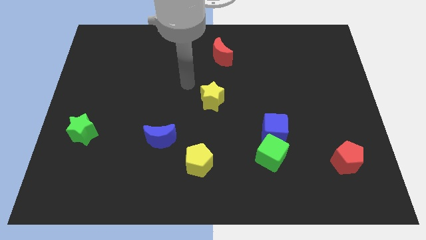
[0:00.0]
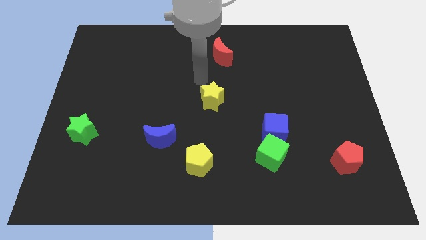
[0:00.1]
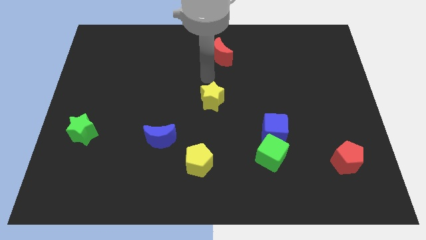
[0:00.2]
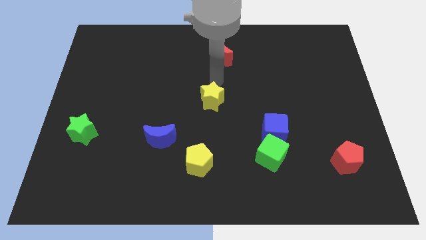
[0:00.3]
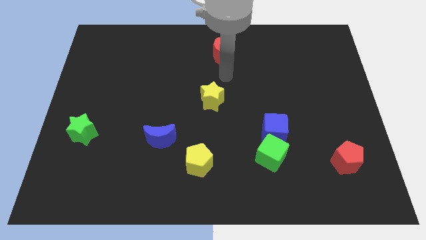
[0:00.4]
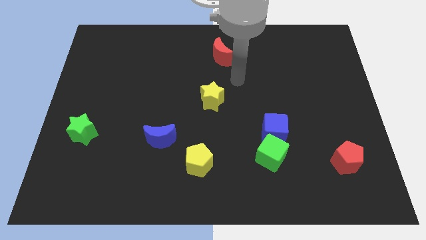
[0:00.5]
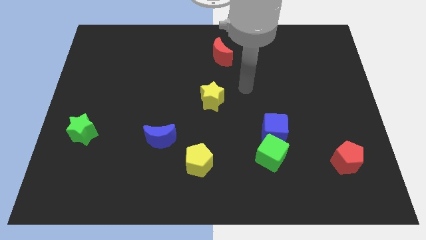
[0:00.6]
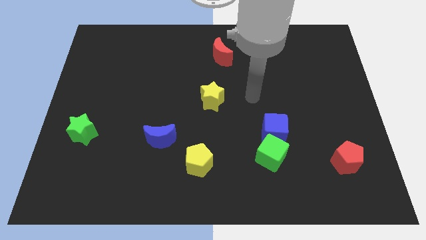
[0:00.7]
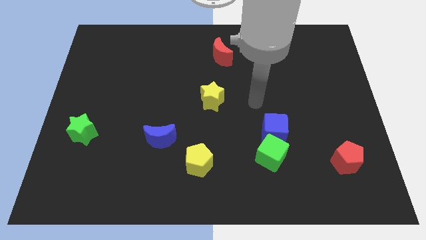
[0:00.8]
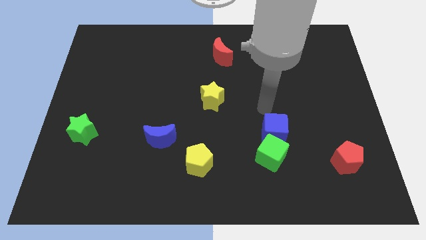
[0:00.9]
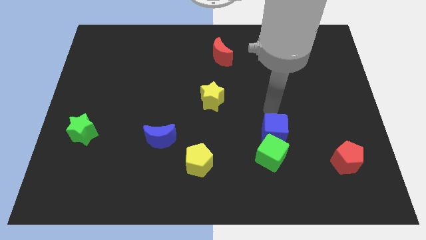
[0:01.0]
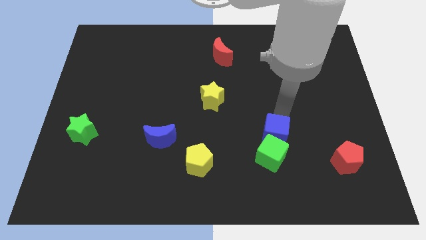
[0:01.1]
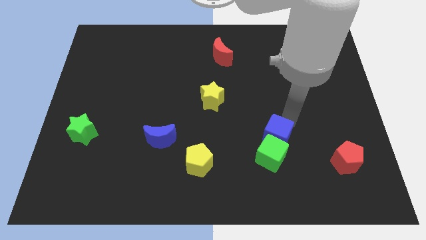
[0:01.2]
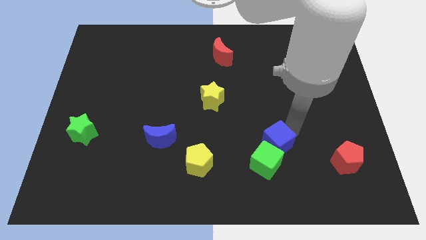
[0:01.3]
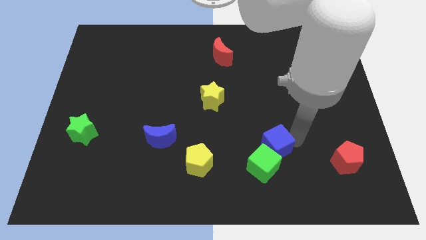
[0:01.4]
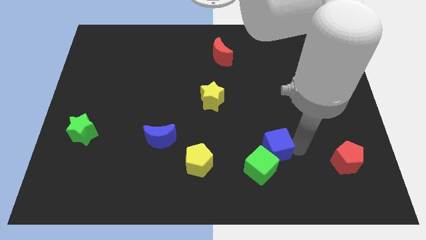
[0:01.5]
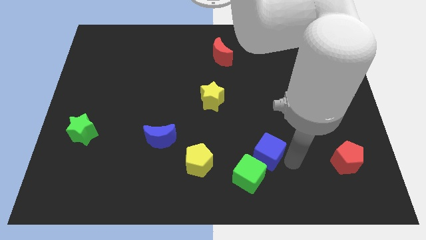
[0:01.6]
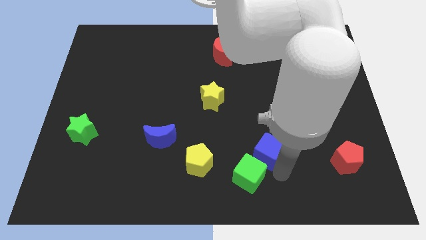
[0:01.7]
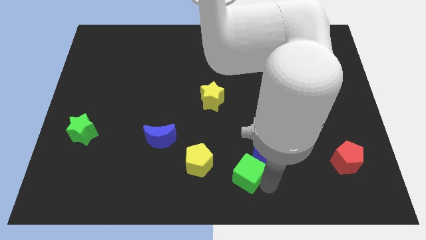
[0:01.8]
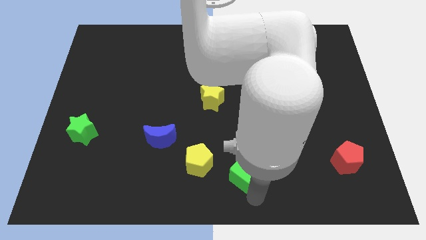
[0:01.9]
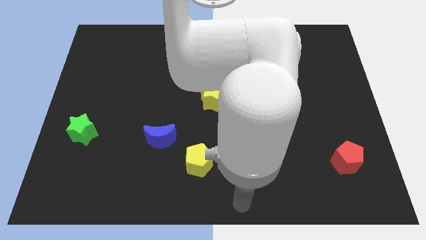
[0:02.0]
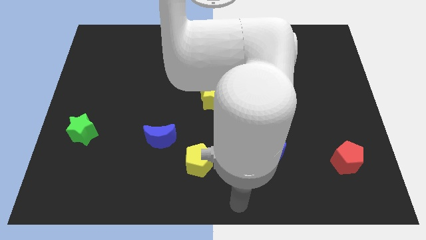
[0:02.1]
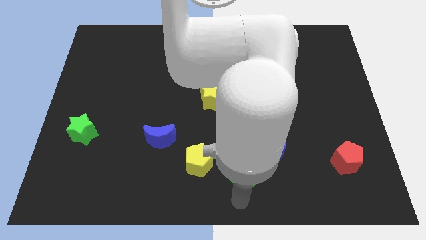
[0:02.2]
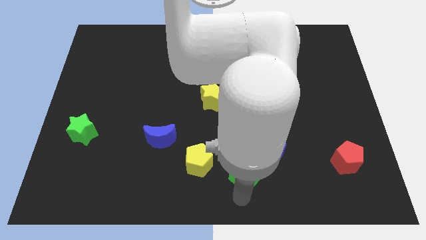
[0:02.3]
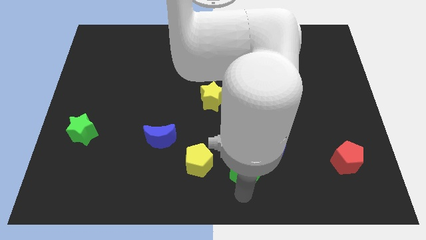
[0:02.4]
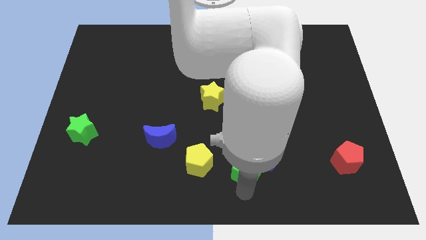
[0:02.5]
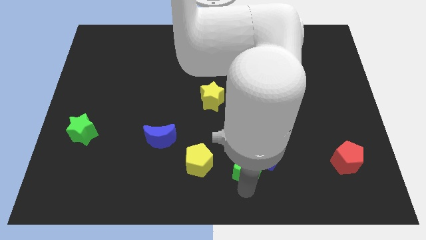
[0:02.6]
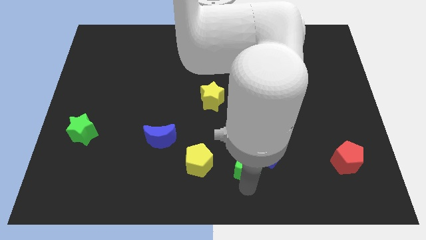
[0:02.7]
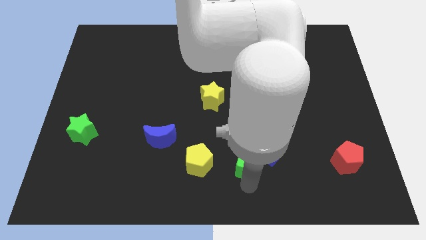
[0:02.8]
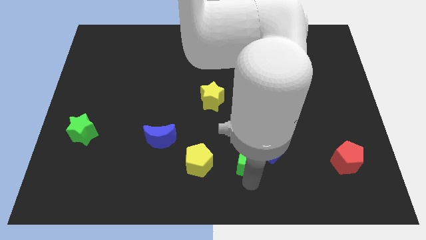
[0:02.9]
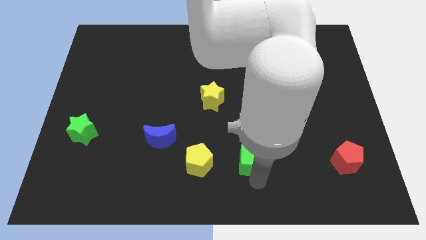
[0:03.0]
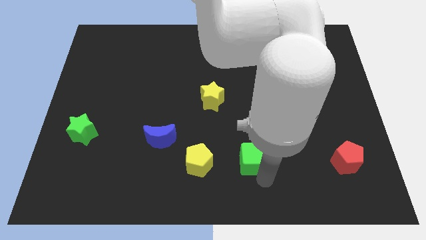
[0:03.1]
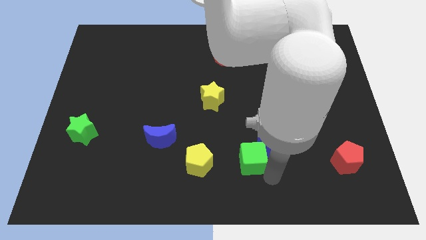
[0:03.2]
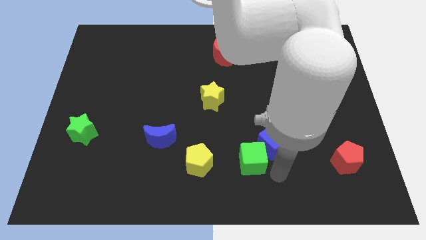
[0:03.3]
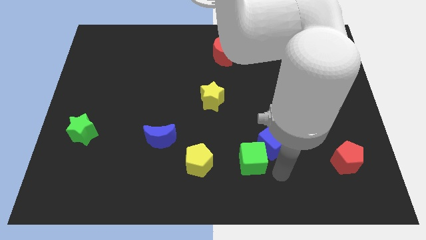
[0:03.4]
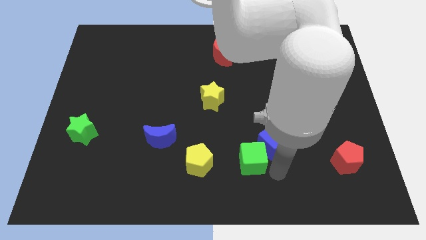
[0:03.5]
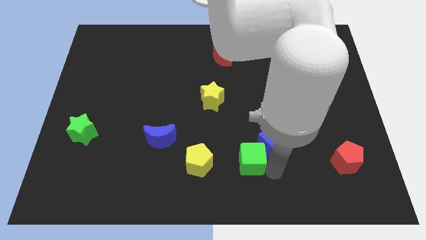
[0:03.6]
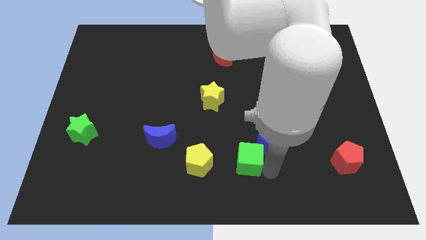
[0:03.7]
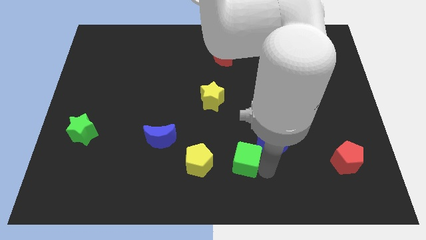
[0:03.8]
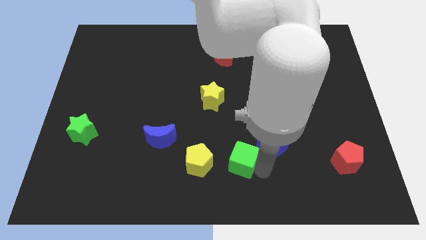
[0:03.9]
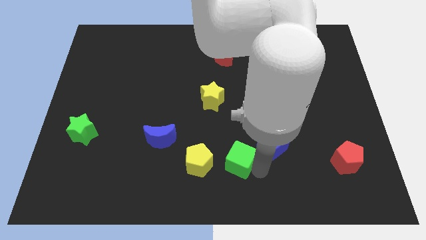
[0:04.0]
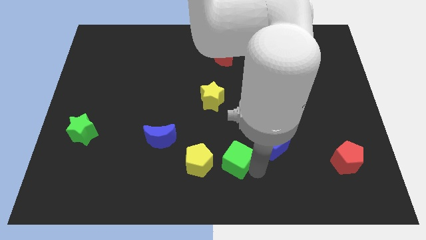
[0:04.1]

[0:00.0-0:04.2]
slide the green cube left slightly

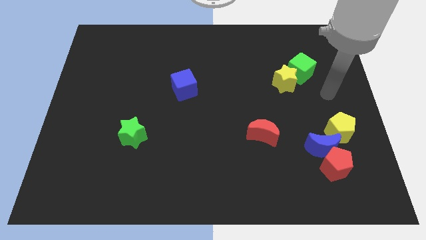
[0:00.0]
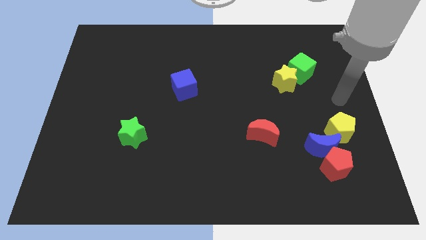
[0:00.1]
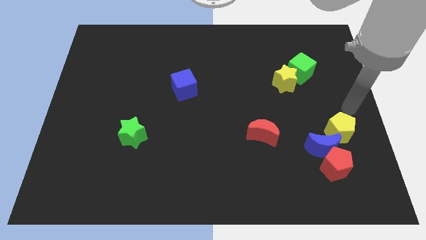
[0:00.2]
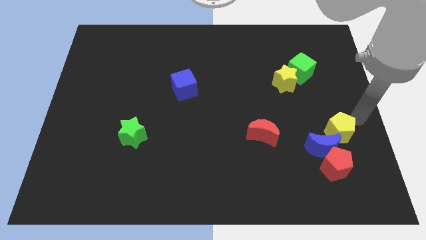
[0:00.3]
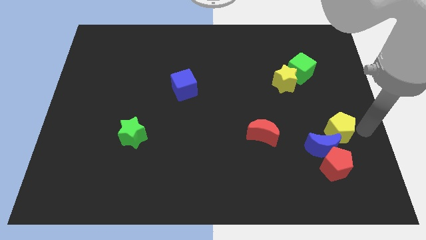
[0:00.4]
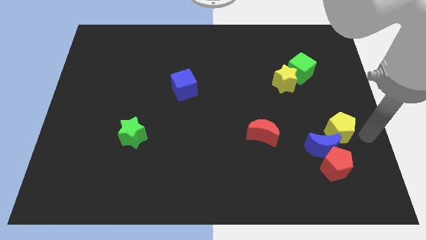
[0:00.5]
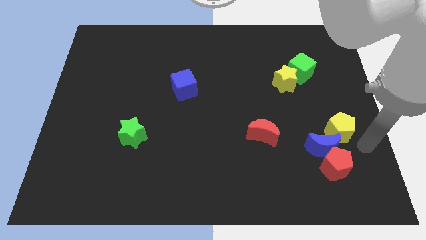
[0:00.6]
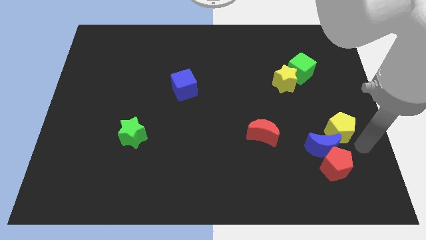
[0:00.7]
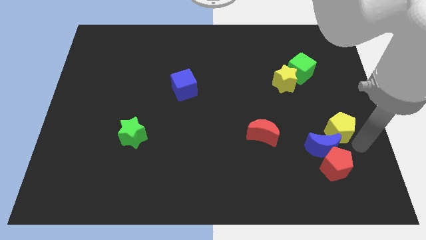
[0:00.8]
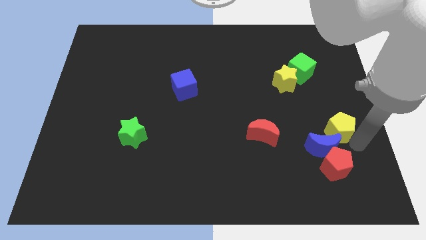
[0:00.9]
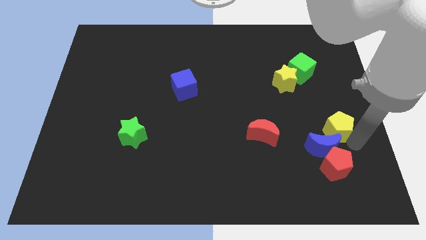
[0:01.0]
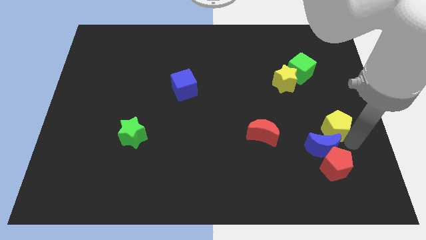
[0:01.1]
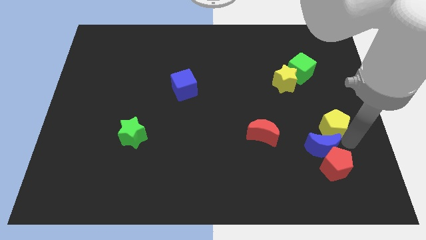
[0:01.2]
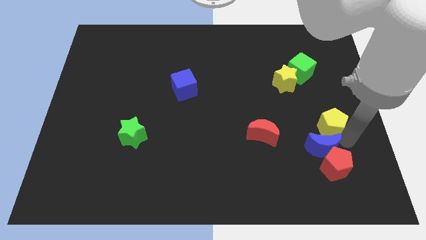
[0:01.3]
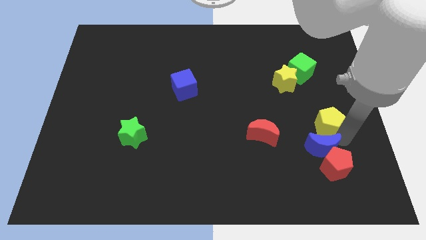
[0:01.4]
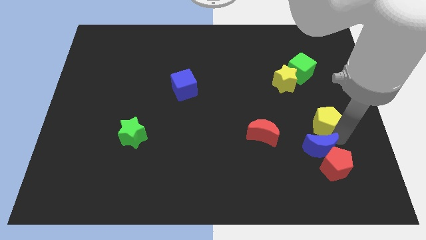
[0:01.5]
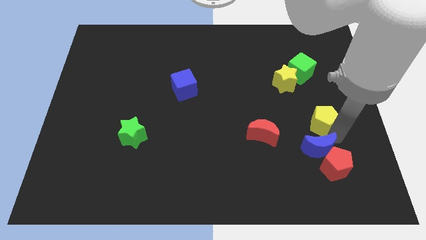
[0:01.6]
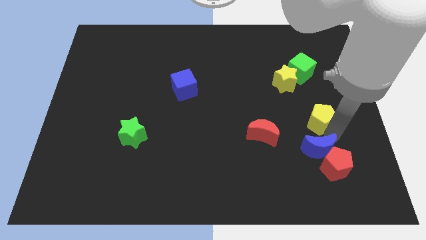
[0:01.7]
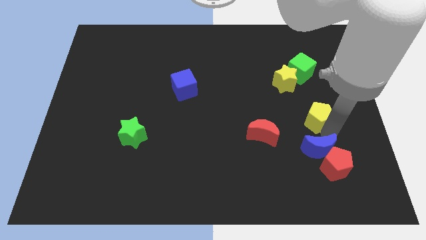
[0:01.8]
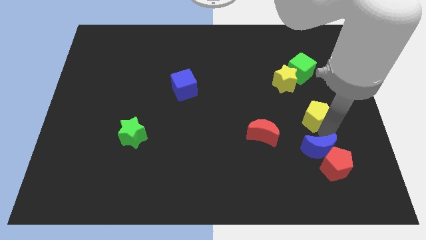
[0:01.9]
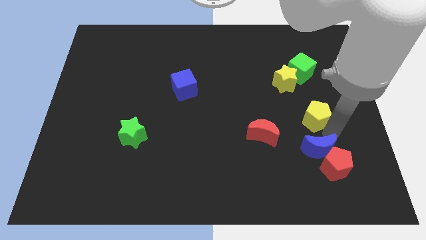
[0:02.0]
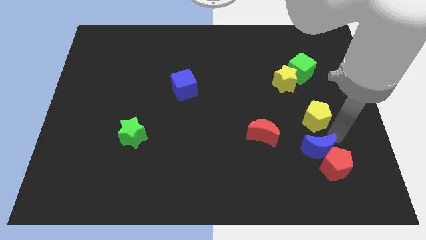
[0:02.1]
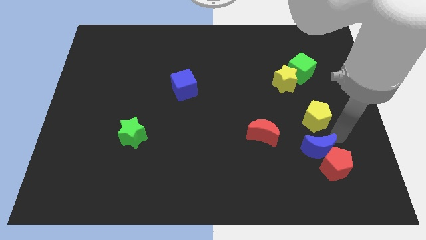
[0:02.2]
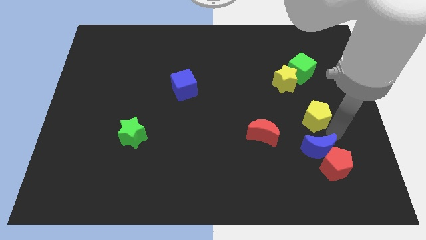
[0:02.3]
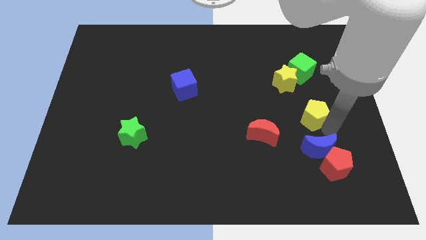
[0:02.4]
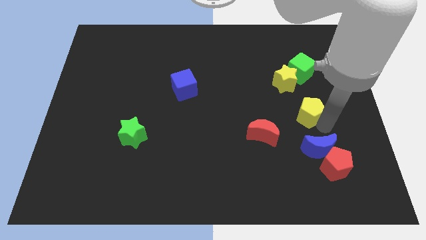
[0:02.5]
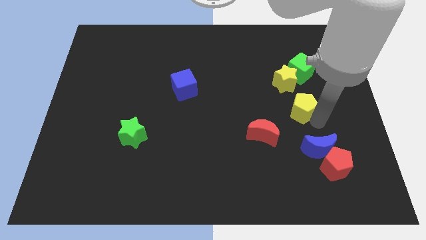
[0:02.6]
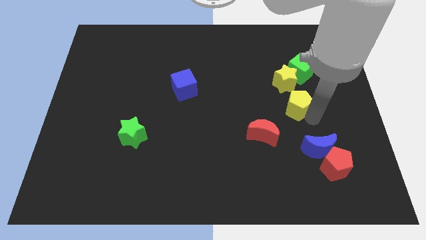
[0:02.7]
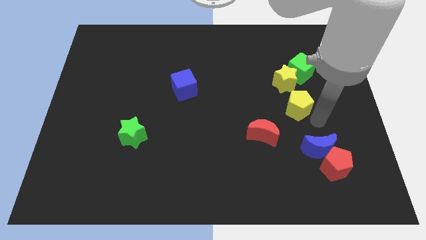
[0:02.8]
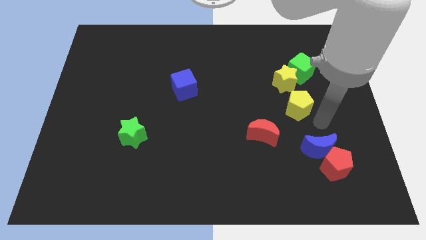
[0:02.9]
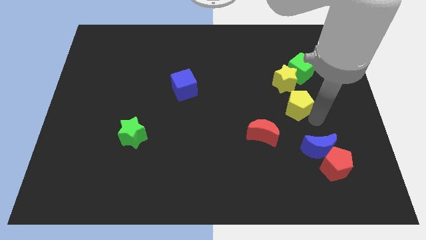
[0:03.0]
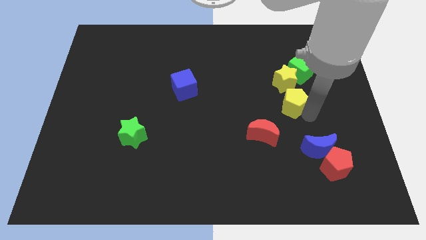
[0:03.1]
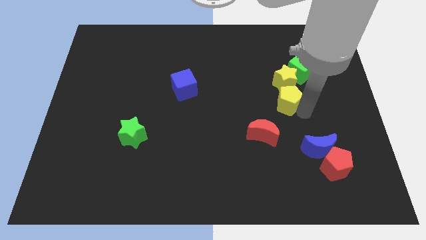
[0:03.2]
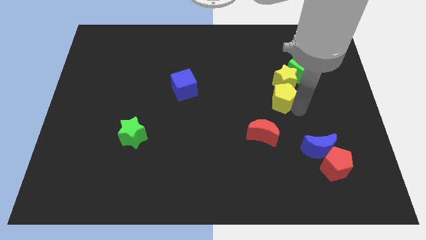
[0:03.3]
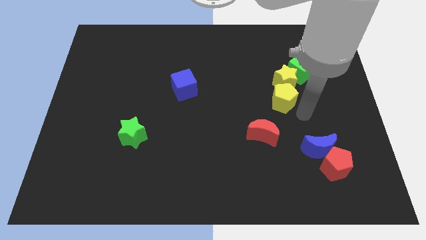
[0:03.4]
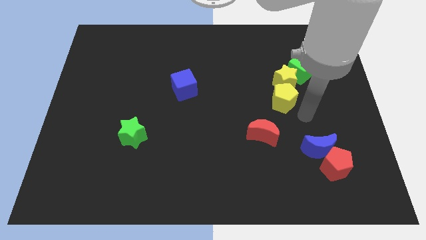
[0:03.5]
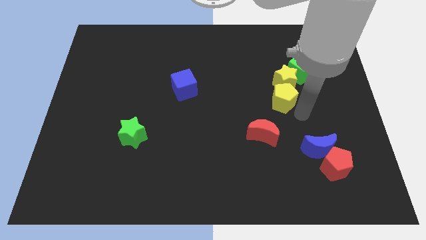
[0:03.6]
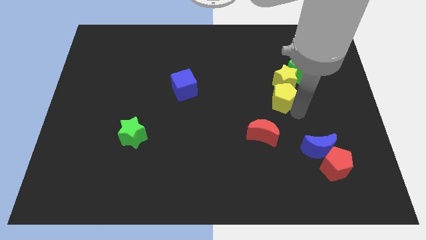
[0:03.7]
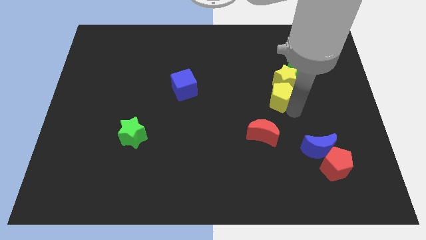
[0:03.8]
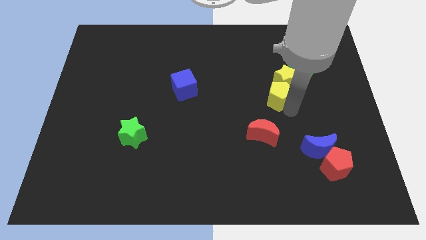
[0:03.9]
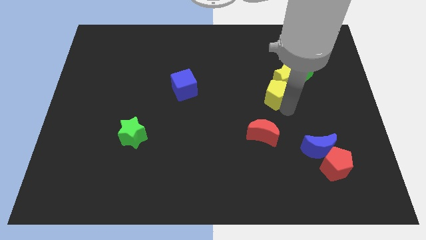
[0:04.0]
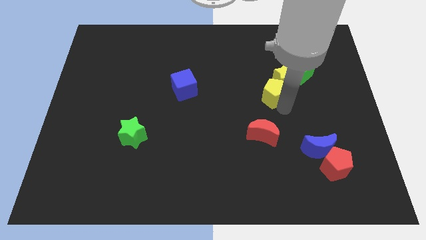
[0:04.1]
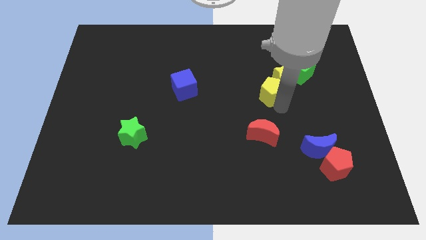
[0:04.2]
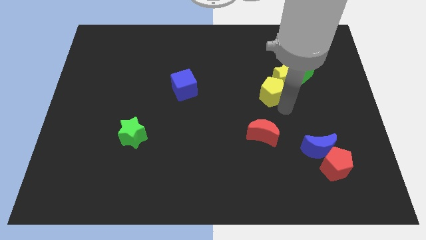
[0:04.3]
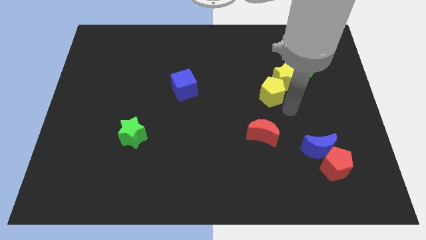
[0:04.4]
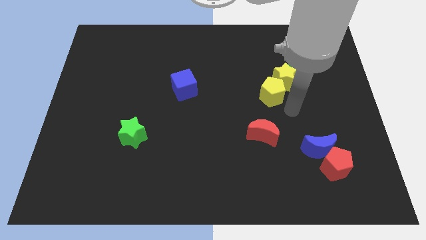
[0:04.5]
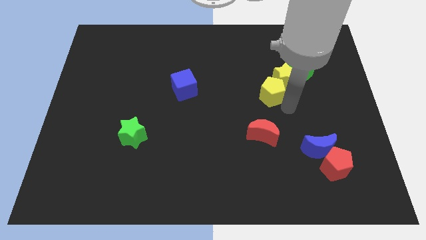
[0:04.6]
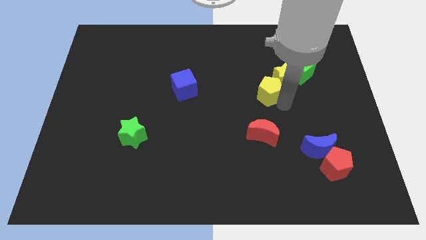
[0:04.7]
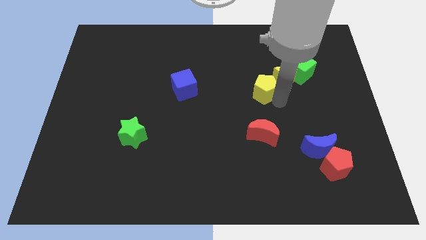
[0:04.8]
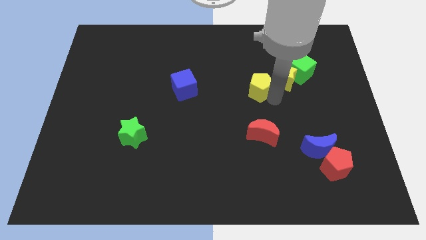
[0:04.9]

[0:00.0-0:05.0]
slide the yellow pentagon upwards and to the left
